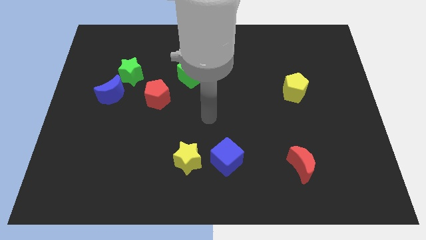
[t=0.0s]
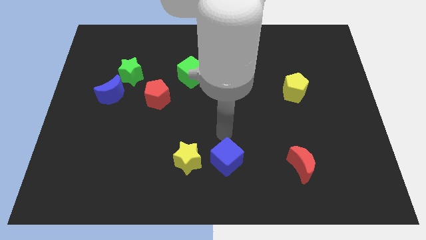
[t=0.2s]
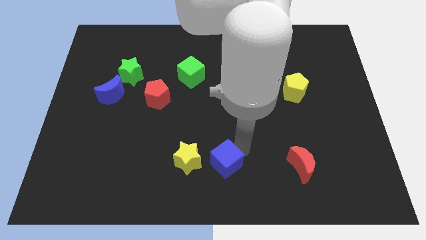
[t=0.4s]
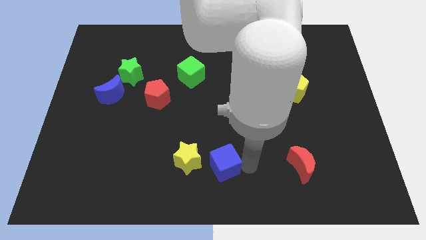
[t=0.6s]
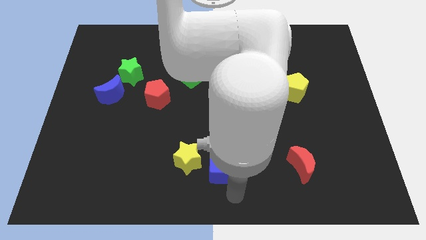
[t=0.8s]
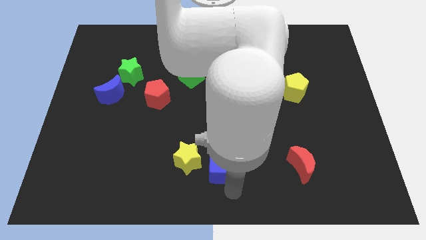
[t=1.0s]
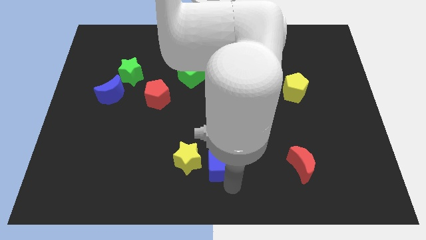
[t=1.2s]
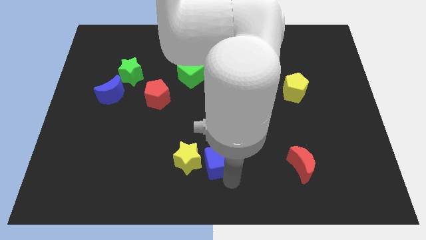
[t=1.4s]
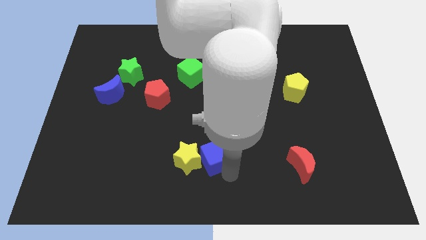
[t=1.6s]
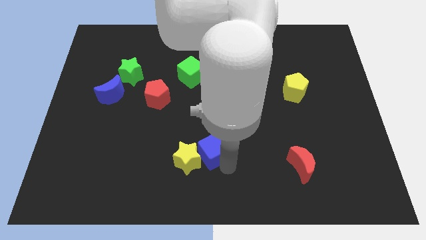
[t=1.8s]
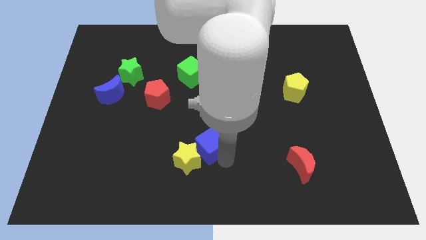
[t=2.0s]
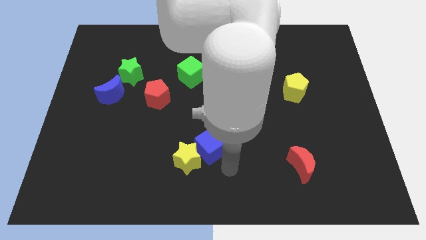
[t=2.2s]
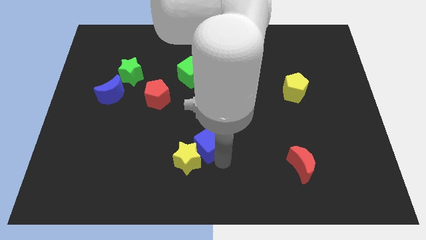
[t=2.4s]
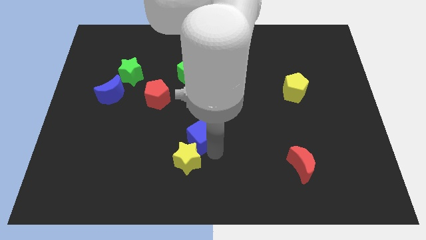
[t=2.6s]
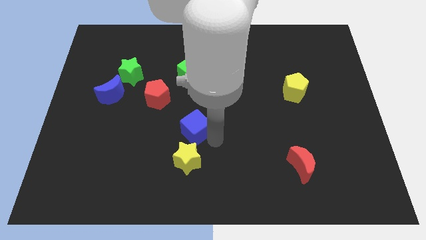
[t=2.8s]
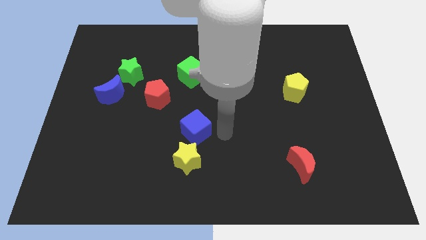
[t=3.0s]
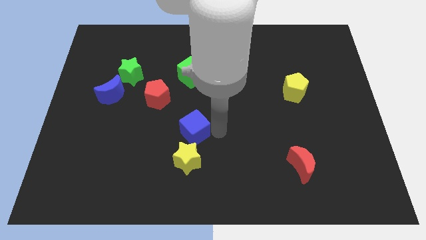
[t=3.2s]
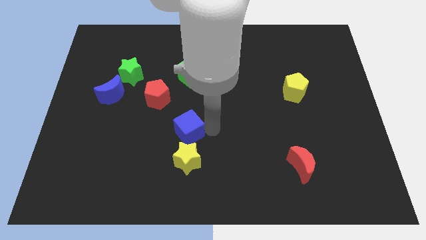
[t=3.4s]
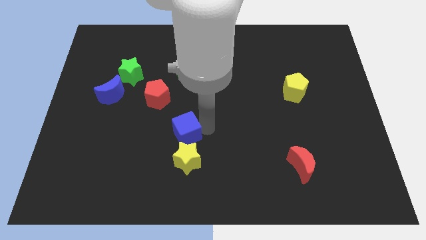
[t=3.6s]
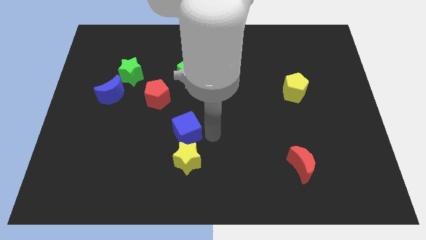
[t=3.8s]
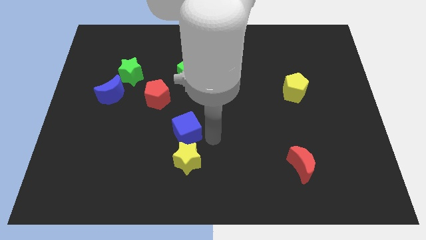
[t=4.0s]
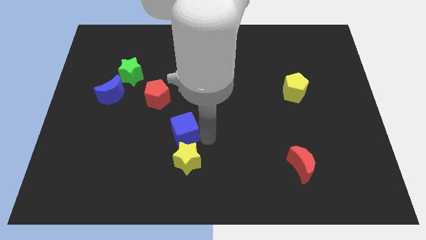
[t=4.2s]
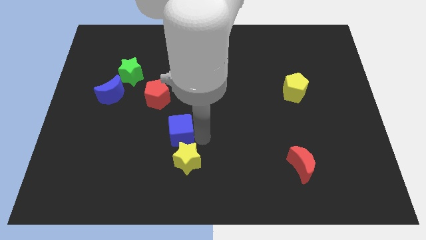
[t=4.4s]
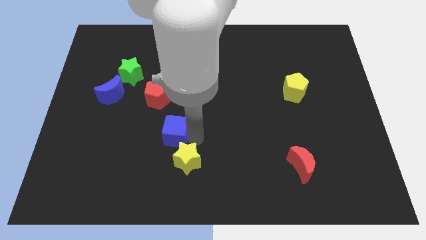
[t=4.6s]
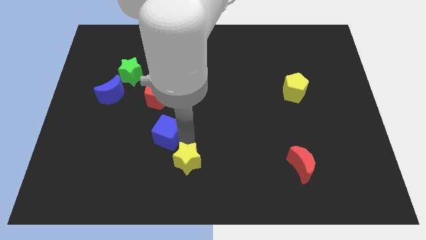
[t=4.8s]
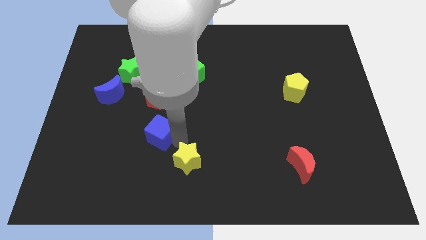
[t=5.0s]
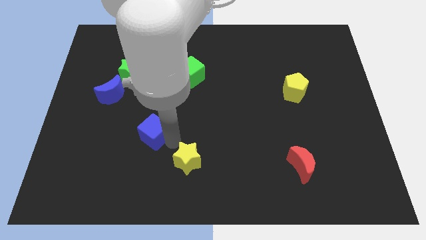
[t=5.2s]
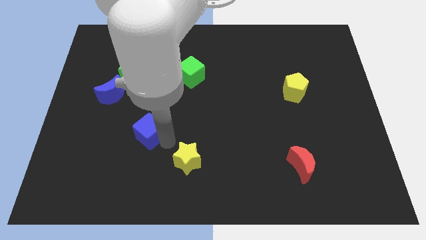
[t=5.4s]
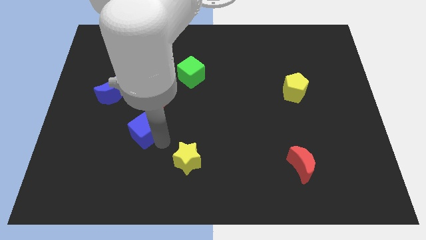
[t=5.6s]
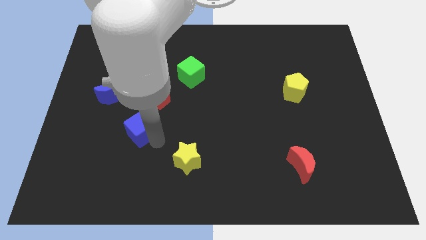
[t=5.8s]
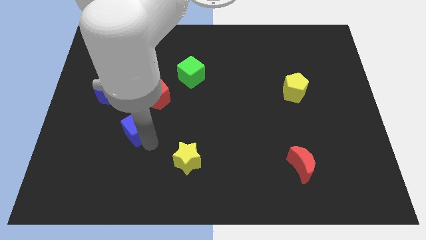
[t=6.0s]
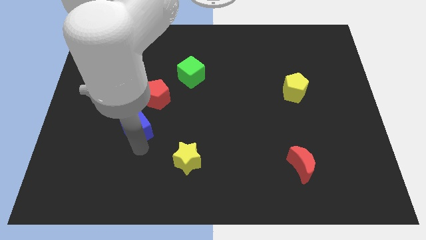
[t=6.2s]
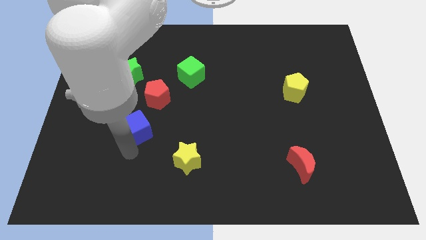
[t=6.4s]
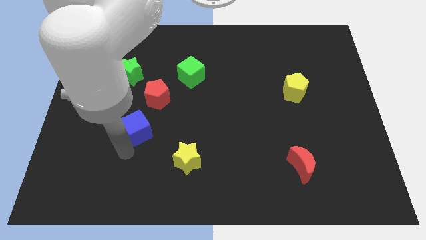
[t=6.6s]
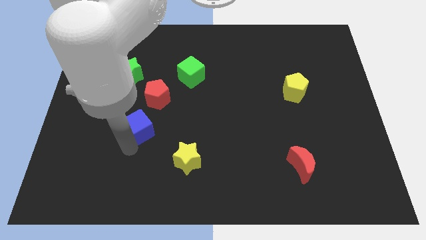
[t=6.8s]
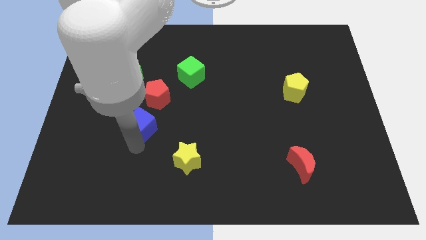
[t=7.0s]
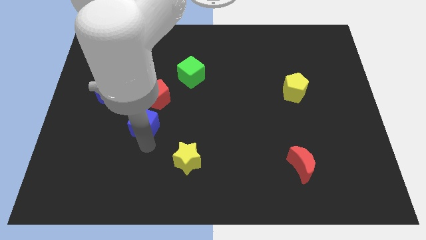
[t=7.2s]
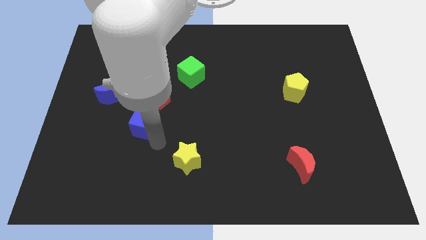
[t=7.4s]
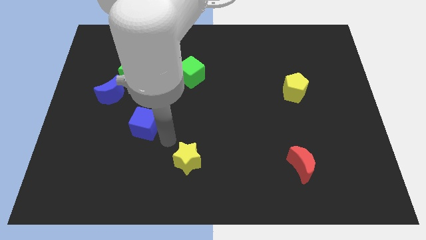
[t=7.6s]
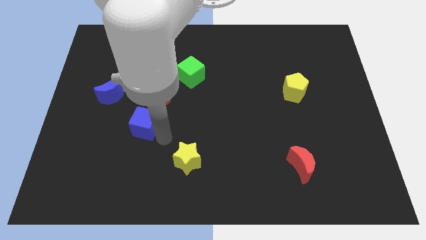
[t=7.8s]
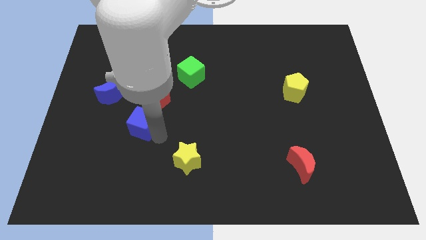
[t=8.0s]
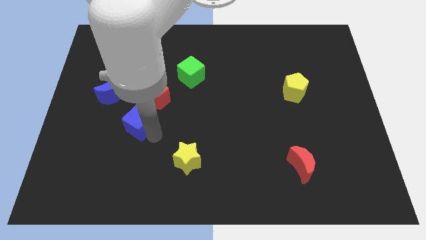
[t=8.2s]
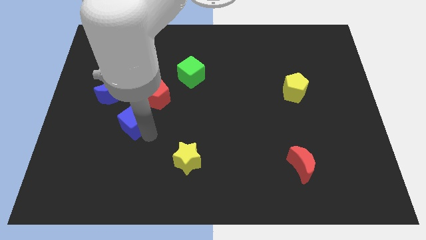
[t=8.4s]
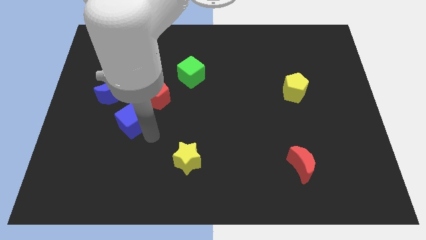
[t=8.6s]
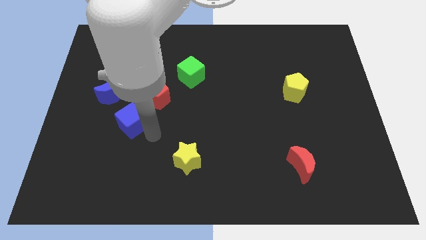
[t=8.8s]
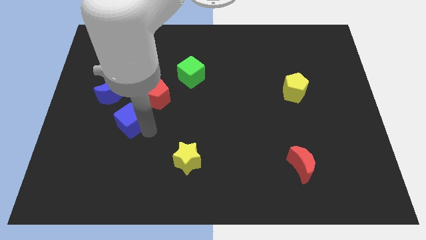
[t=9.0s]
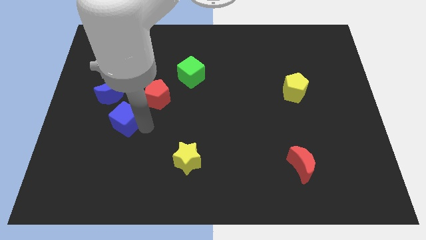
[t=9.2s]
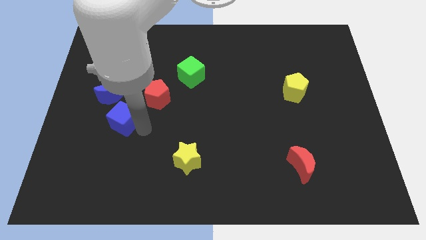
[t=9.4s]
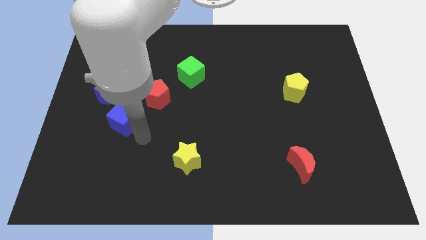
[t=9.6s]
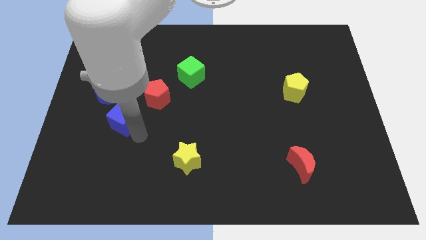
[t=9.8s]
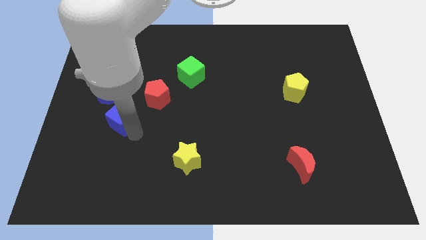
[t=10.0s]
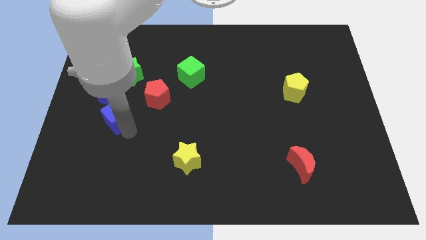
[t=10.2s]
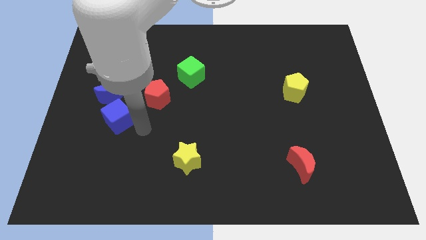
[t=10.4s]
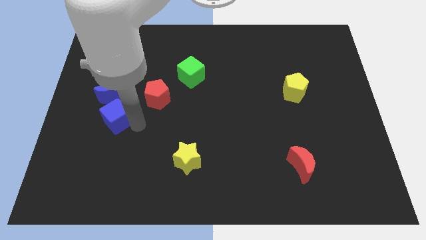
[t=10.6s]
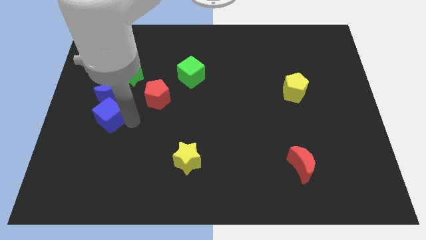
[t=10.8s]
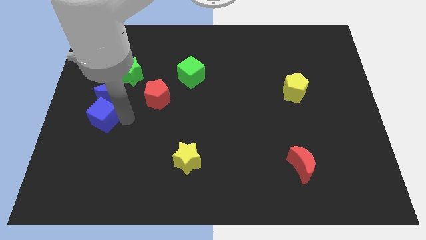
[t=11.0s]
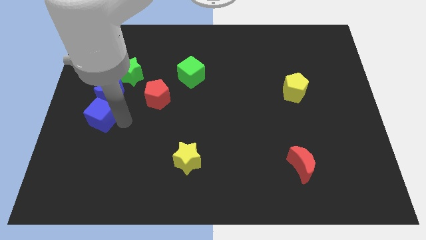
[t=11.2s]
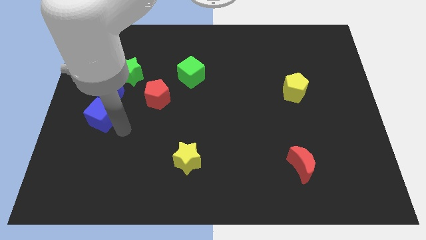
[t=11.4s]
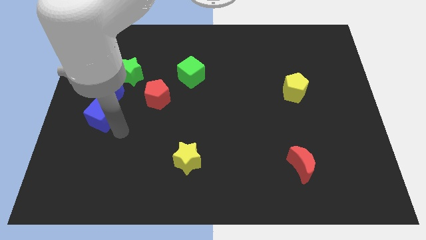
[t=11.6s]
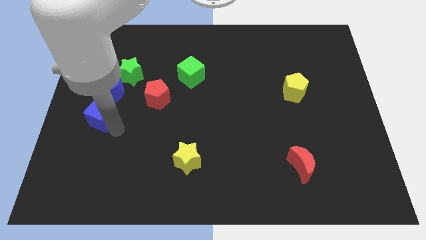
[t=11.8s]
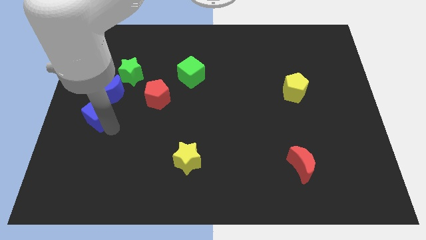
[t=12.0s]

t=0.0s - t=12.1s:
push the blue cube to the left side of the board
